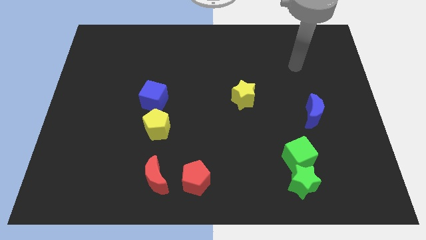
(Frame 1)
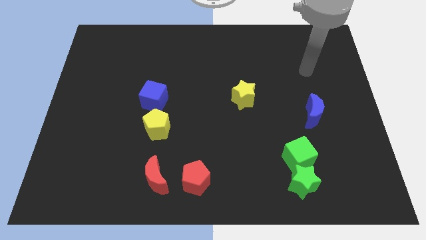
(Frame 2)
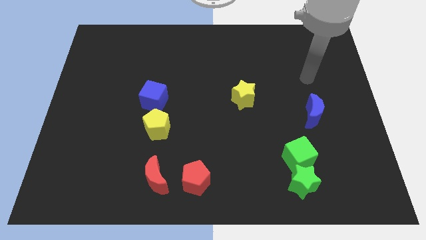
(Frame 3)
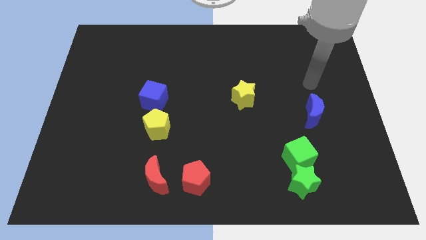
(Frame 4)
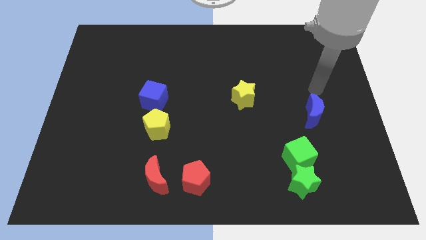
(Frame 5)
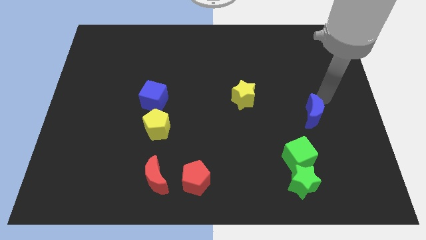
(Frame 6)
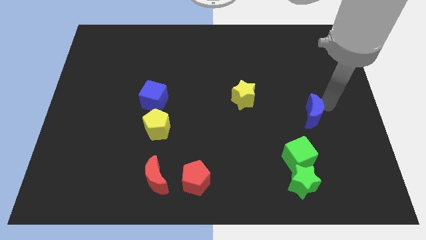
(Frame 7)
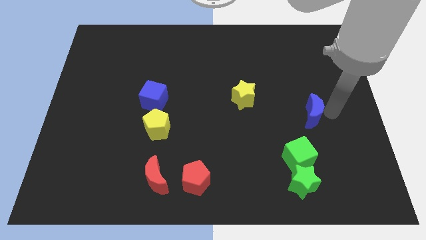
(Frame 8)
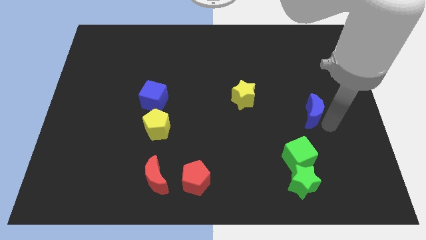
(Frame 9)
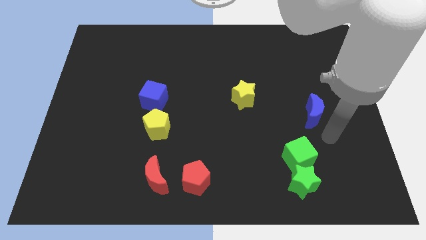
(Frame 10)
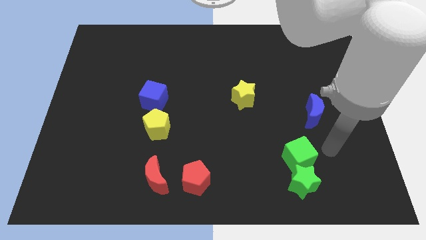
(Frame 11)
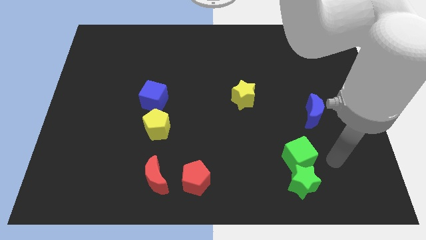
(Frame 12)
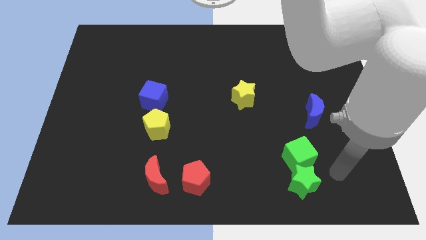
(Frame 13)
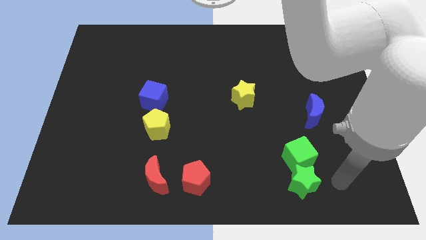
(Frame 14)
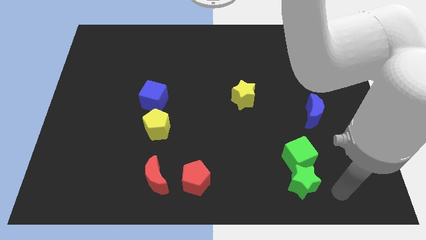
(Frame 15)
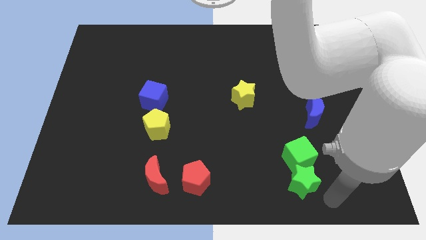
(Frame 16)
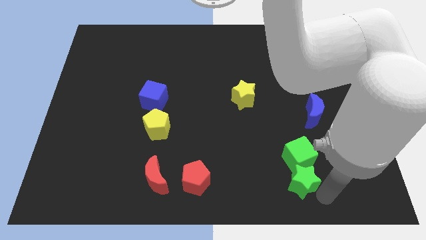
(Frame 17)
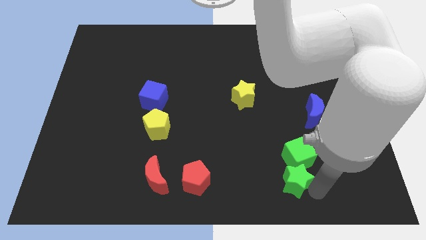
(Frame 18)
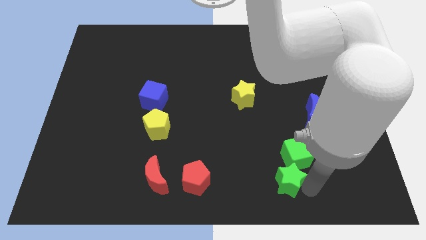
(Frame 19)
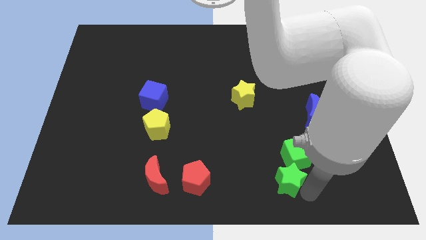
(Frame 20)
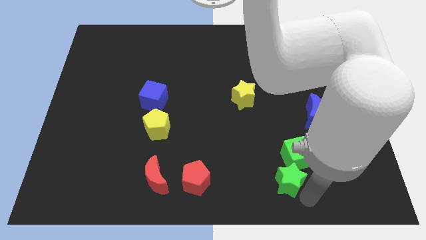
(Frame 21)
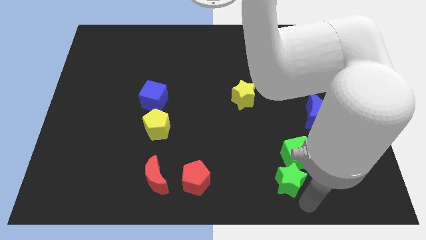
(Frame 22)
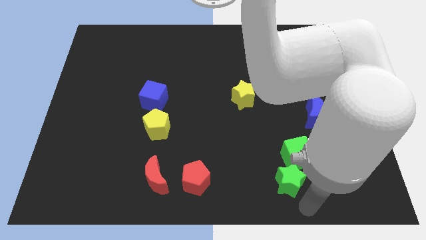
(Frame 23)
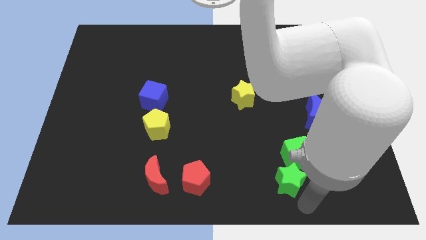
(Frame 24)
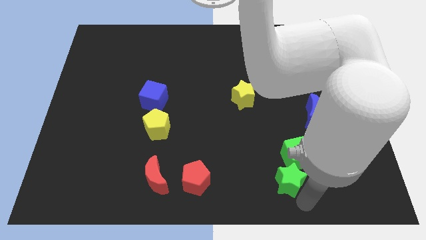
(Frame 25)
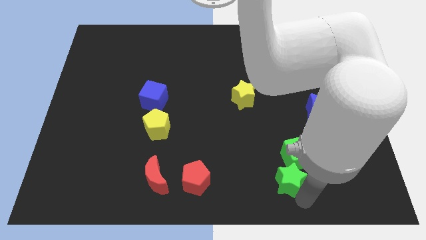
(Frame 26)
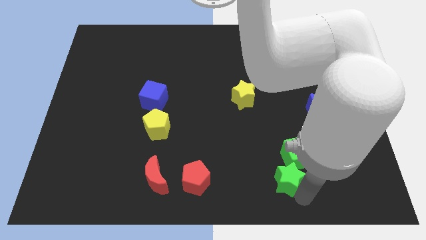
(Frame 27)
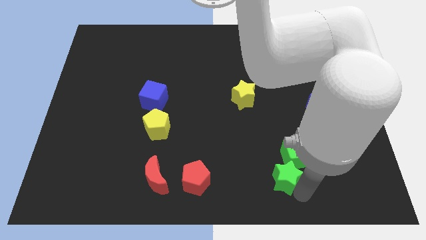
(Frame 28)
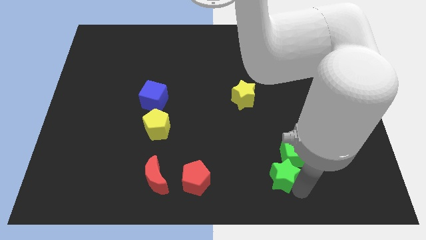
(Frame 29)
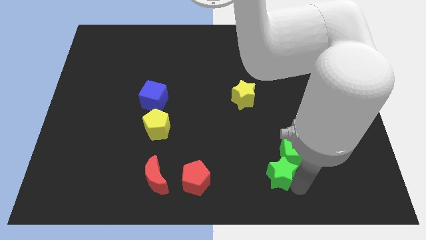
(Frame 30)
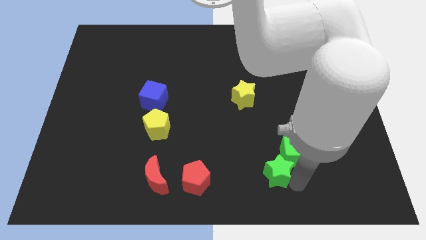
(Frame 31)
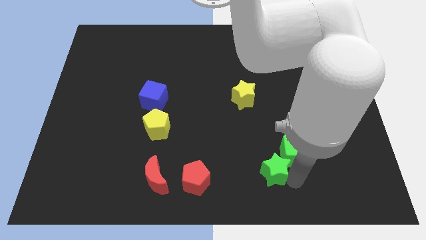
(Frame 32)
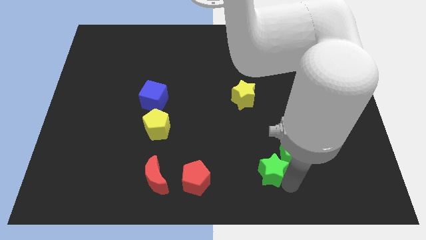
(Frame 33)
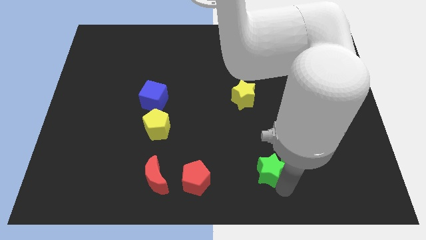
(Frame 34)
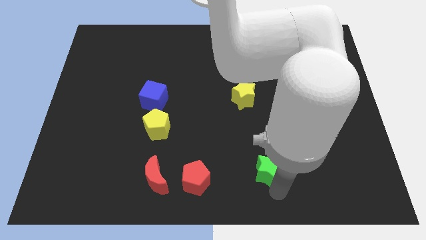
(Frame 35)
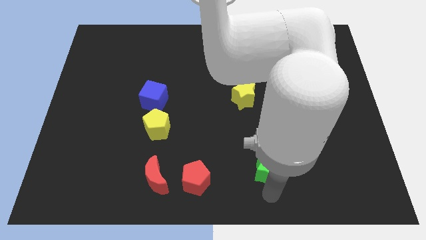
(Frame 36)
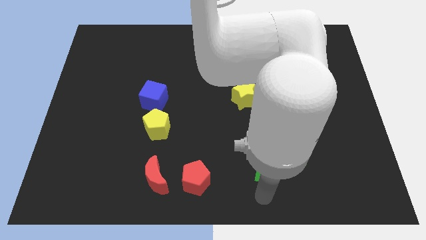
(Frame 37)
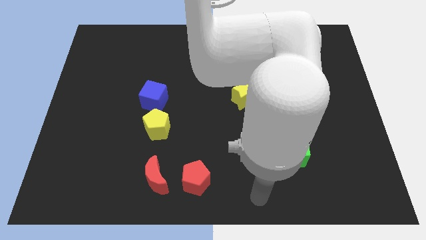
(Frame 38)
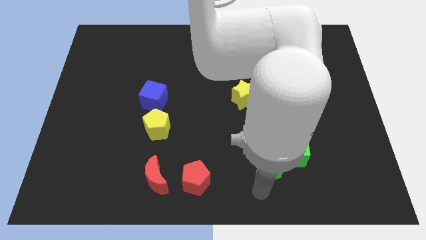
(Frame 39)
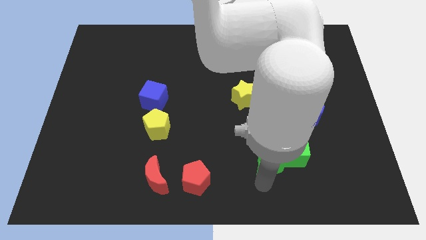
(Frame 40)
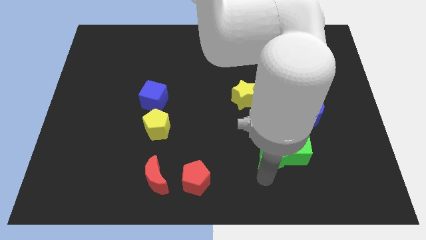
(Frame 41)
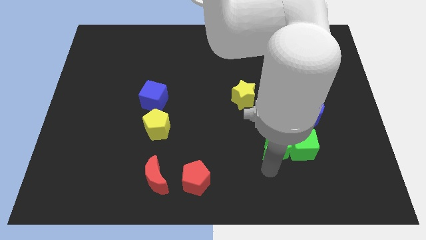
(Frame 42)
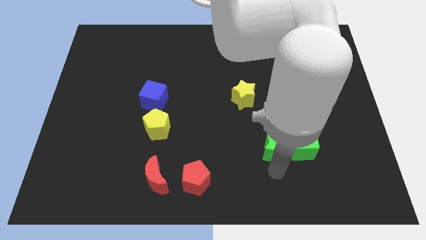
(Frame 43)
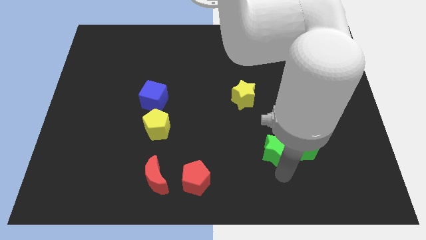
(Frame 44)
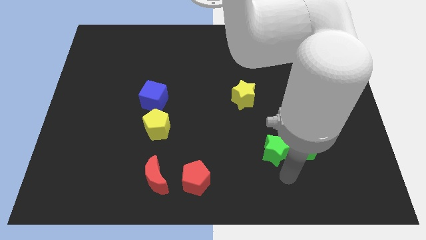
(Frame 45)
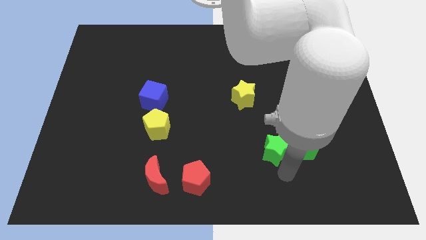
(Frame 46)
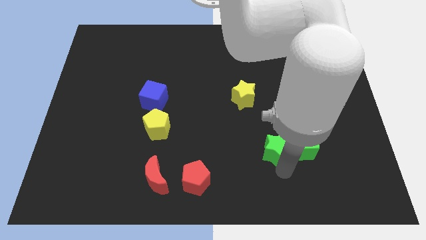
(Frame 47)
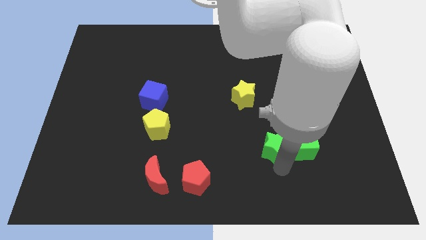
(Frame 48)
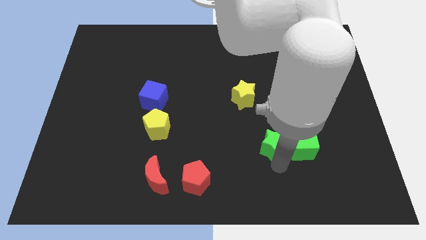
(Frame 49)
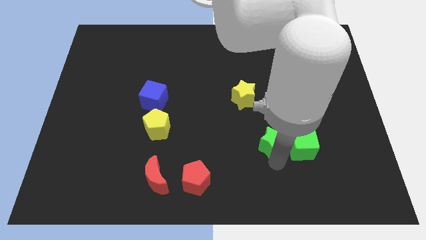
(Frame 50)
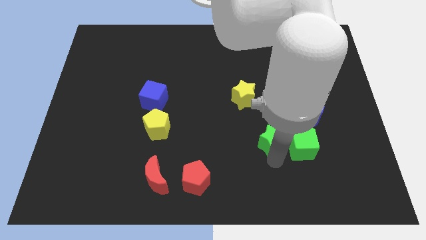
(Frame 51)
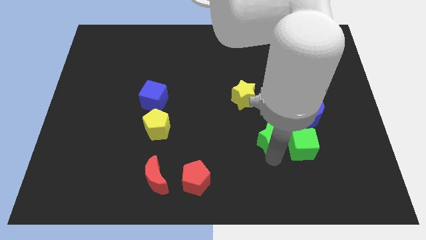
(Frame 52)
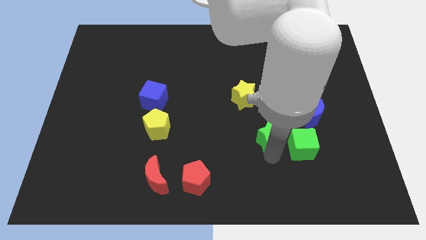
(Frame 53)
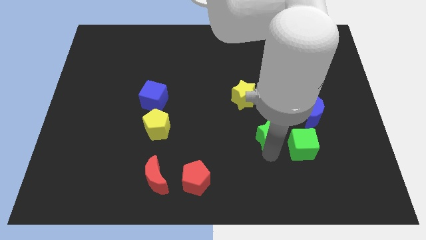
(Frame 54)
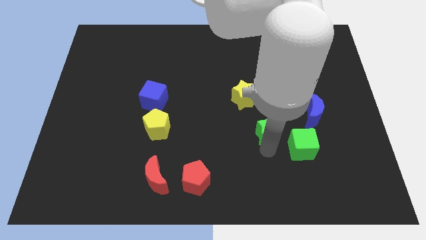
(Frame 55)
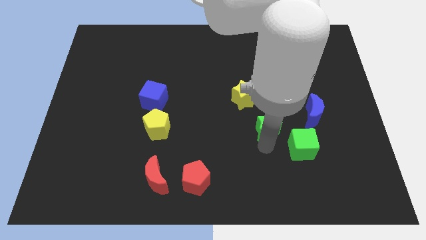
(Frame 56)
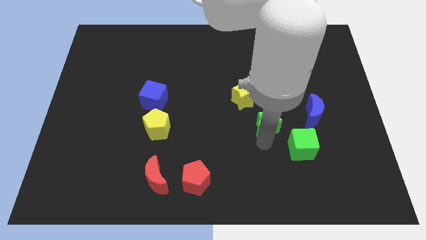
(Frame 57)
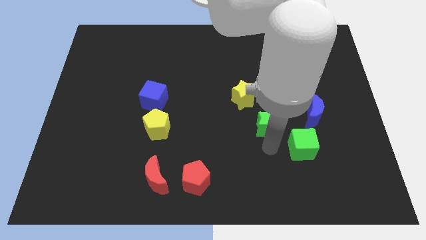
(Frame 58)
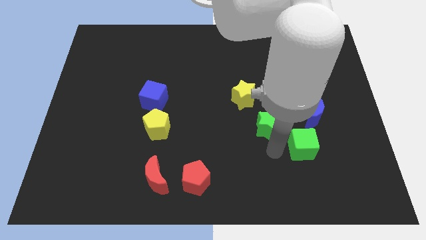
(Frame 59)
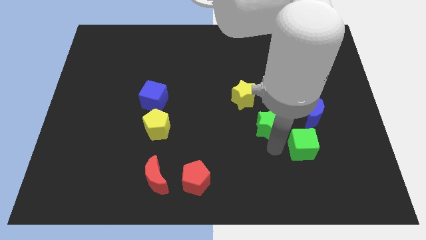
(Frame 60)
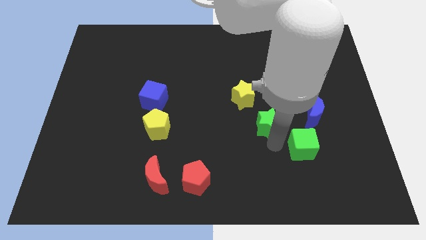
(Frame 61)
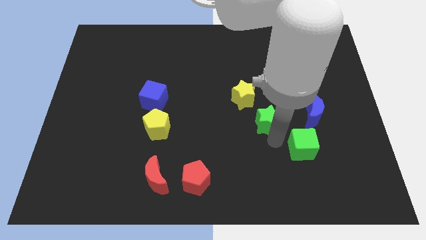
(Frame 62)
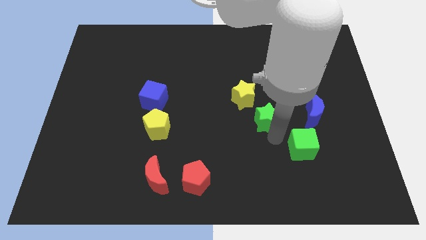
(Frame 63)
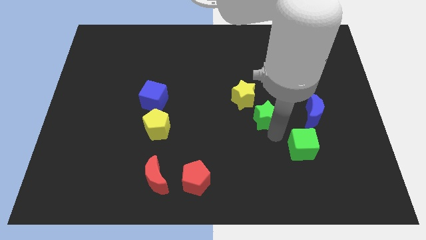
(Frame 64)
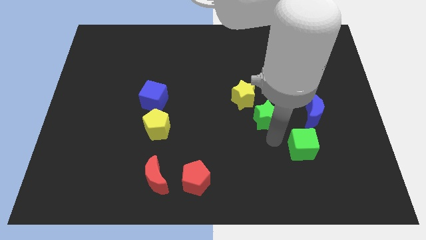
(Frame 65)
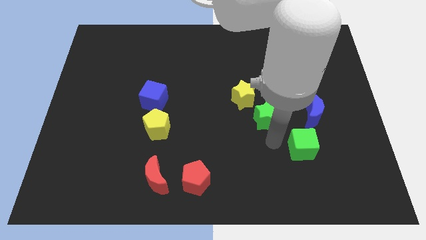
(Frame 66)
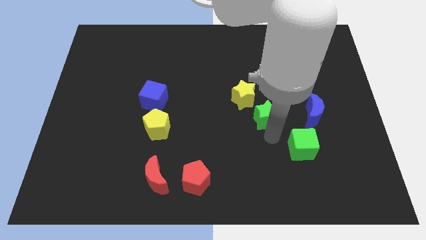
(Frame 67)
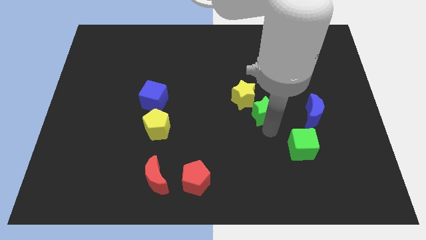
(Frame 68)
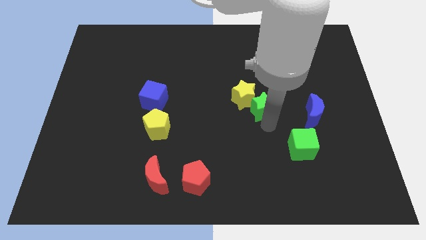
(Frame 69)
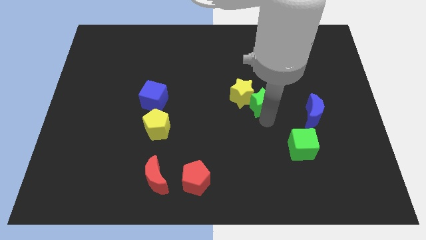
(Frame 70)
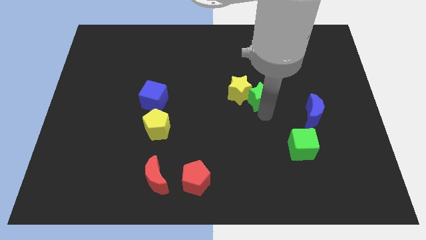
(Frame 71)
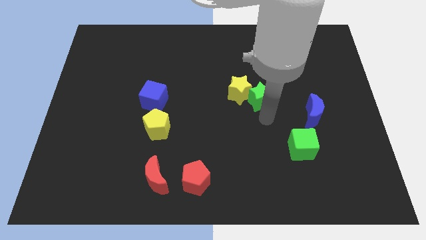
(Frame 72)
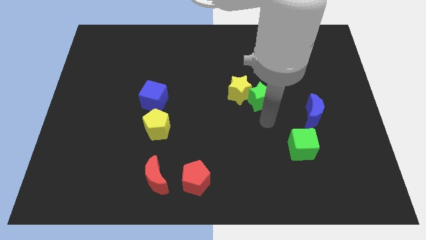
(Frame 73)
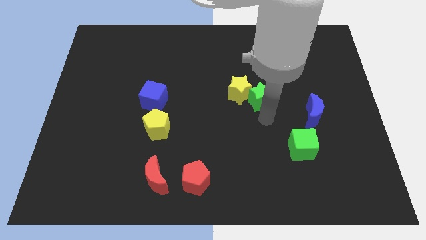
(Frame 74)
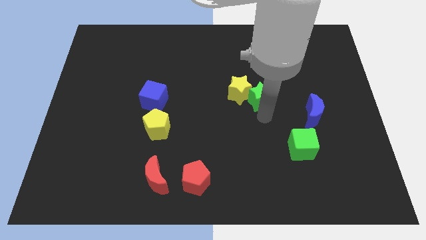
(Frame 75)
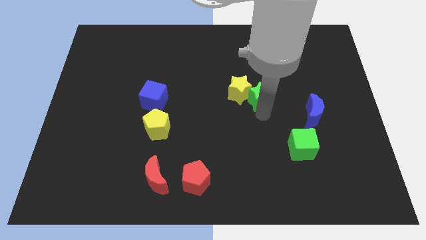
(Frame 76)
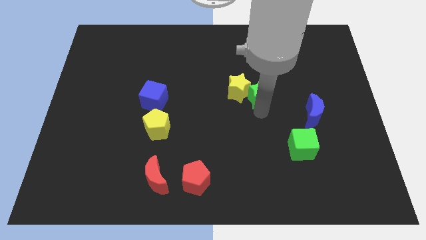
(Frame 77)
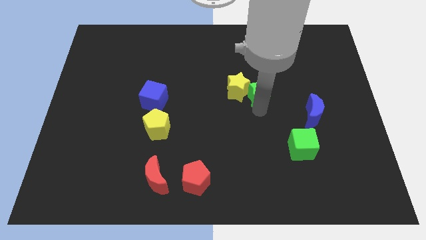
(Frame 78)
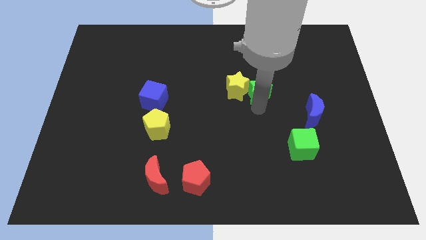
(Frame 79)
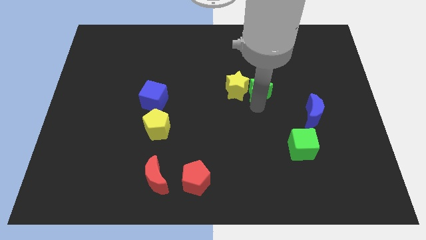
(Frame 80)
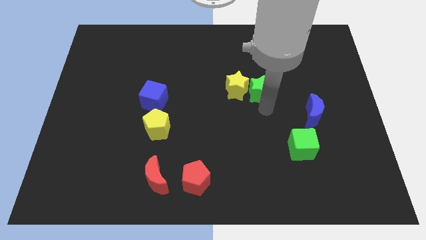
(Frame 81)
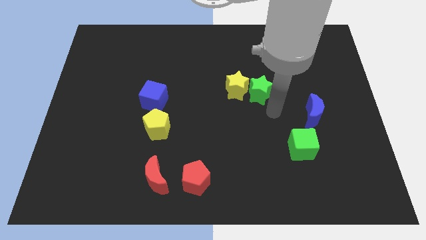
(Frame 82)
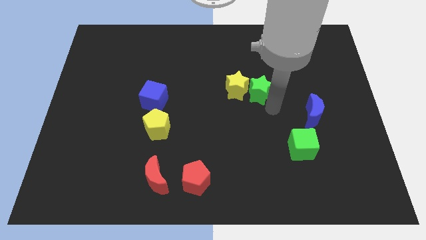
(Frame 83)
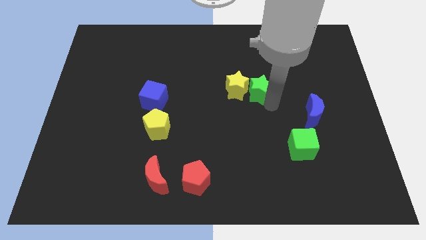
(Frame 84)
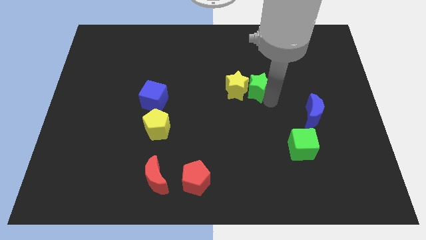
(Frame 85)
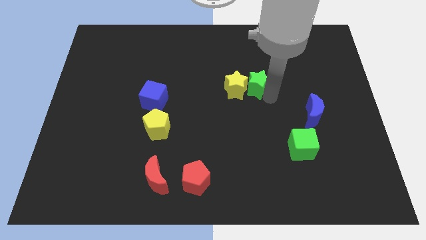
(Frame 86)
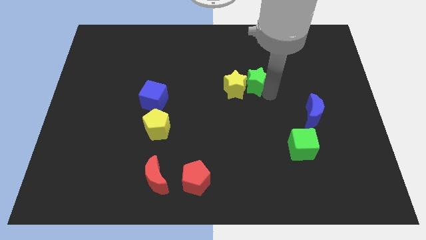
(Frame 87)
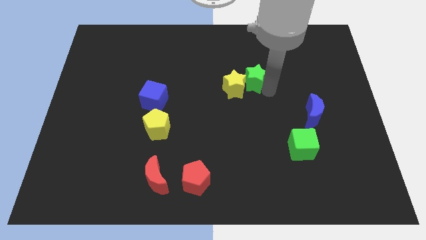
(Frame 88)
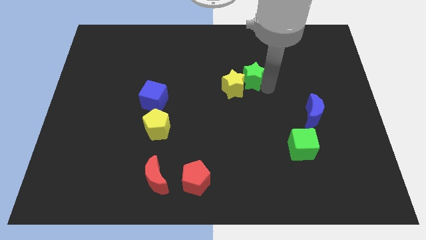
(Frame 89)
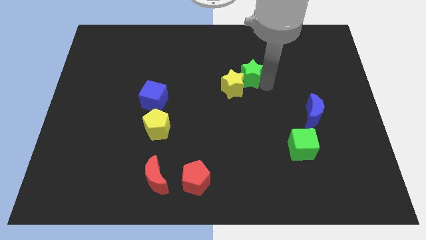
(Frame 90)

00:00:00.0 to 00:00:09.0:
push the green star to the top side of the yellow star
